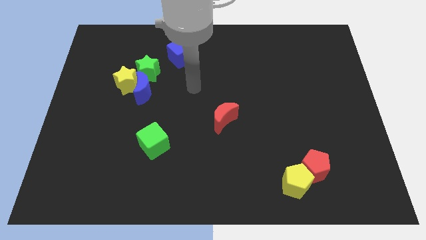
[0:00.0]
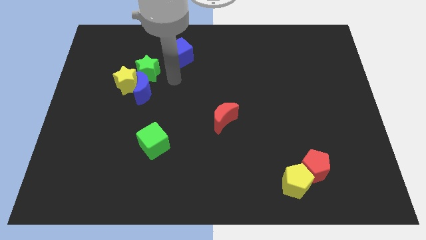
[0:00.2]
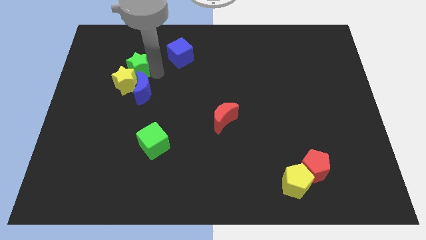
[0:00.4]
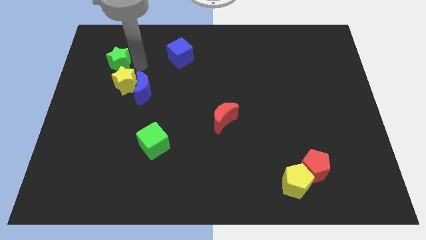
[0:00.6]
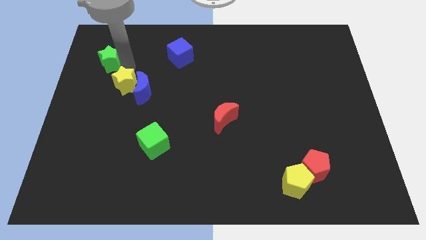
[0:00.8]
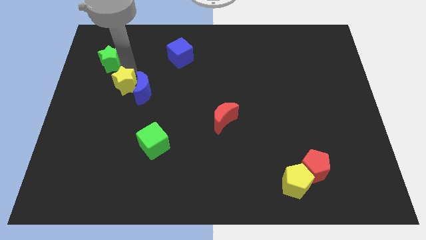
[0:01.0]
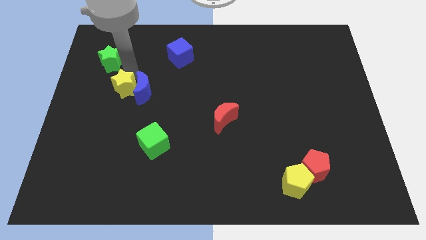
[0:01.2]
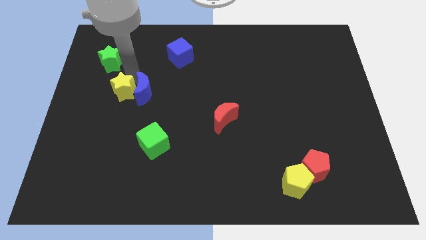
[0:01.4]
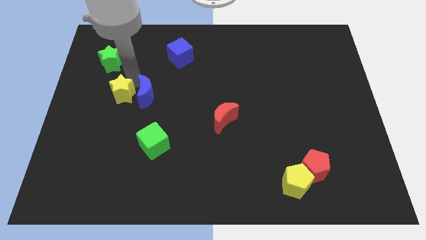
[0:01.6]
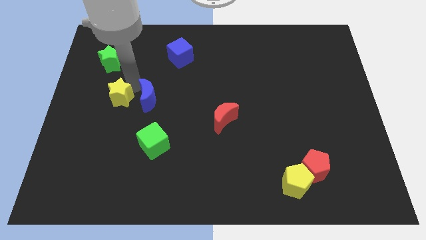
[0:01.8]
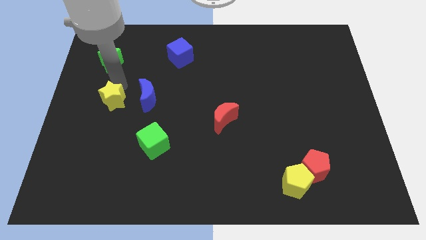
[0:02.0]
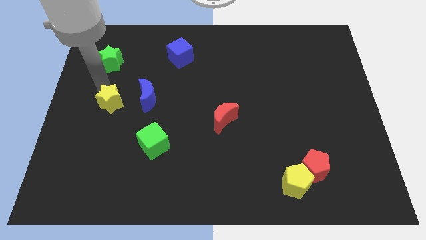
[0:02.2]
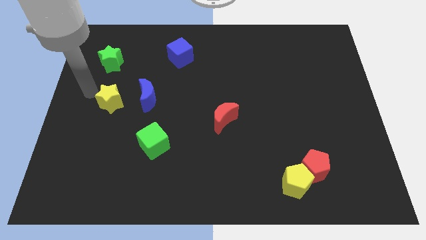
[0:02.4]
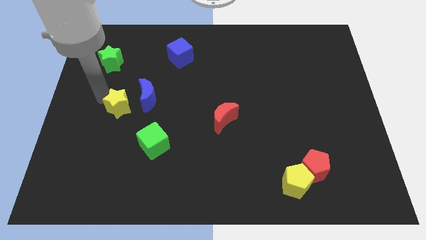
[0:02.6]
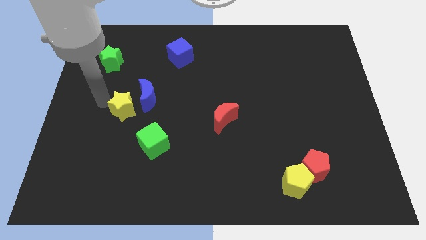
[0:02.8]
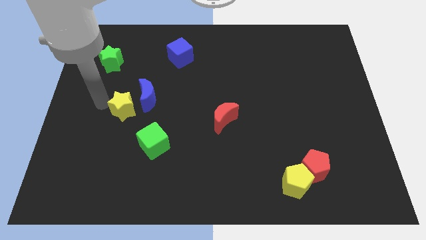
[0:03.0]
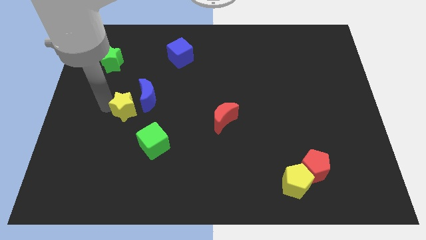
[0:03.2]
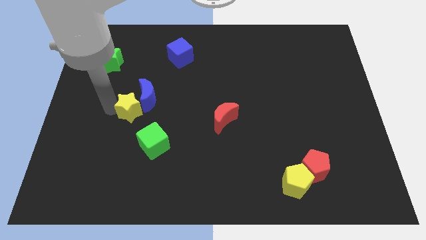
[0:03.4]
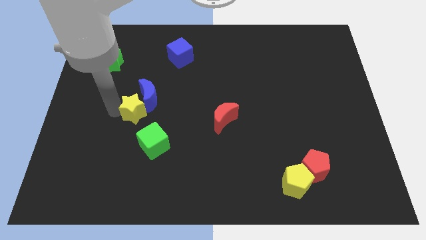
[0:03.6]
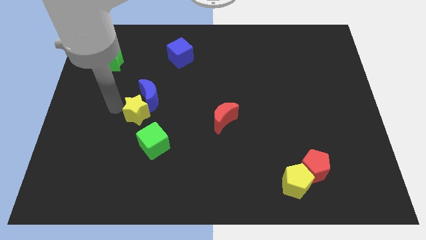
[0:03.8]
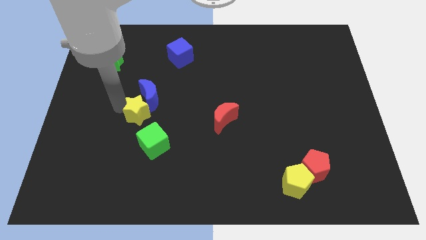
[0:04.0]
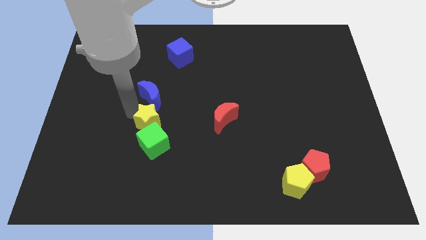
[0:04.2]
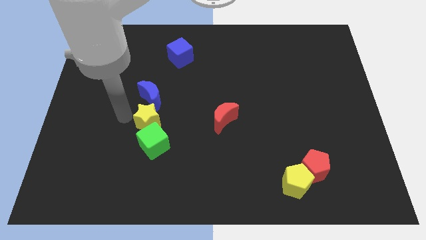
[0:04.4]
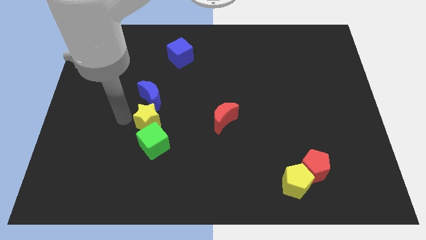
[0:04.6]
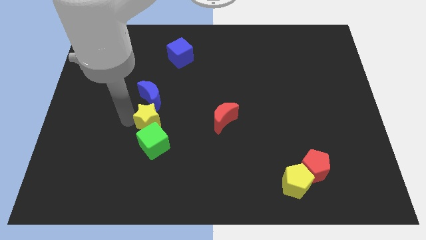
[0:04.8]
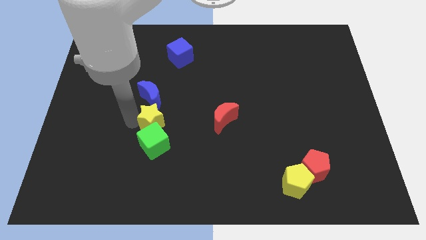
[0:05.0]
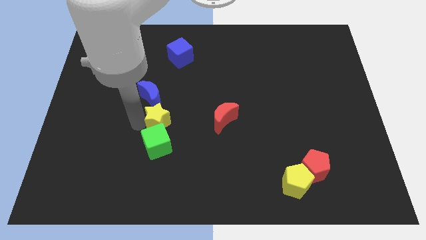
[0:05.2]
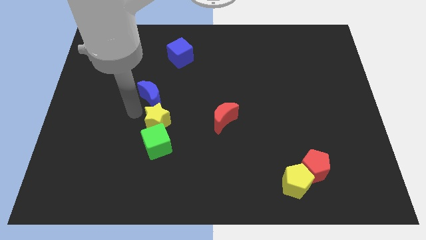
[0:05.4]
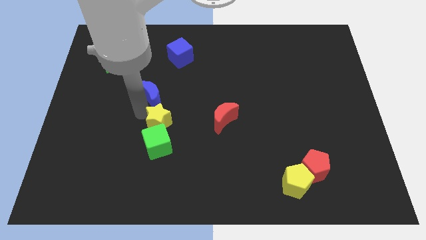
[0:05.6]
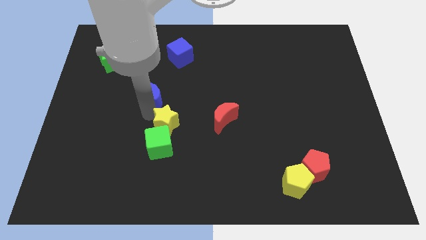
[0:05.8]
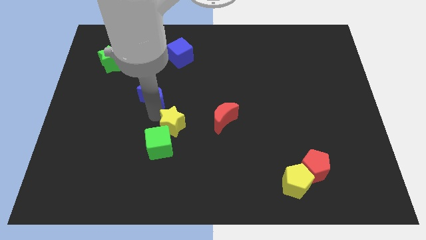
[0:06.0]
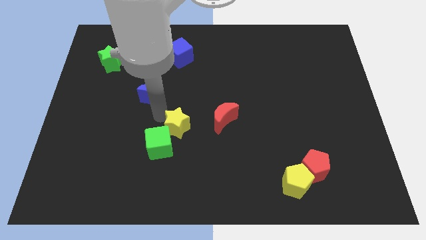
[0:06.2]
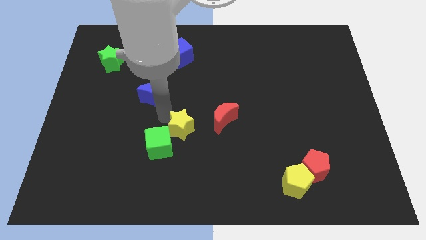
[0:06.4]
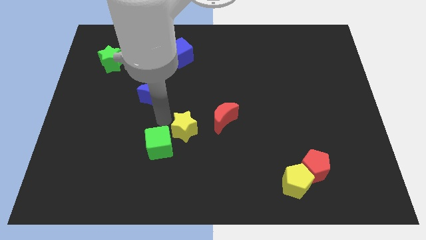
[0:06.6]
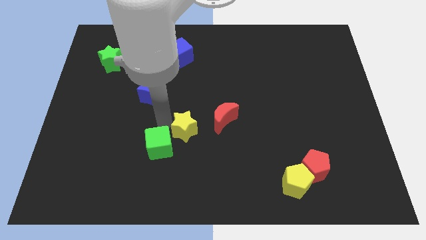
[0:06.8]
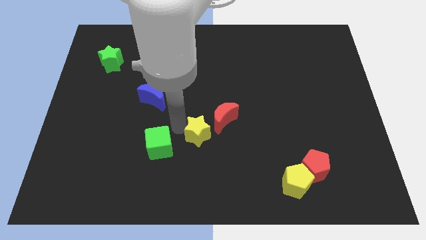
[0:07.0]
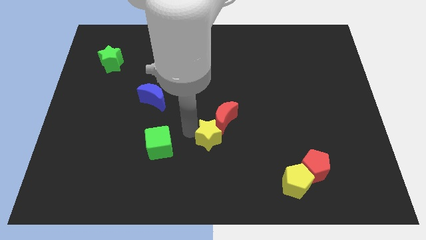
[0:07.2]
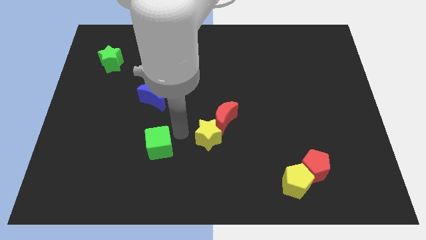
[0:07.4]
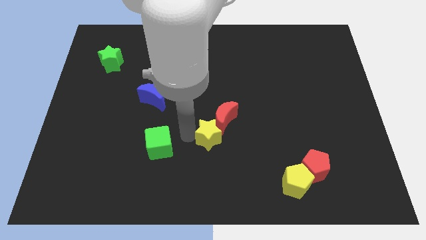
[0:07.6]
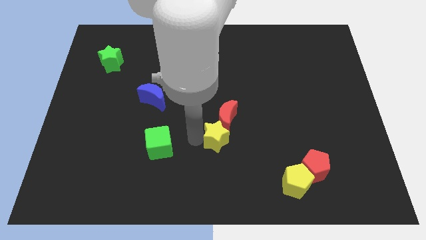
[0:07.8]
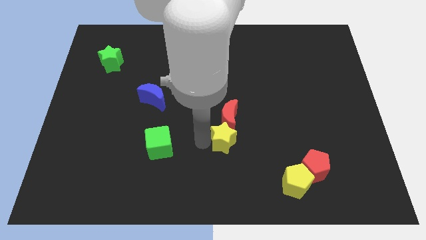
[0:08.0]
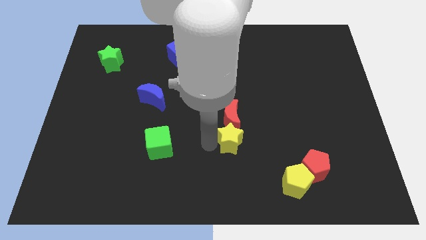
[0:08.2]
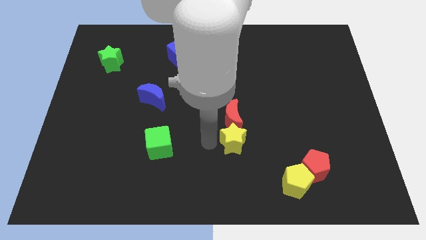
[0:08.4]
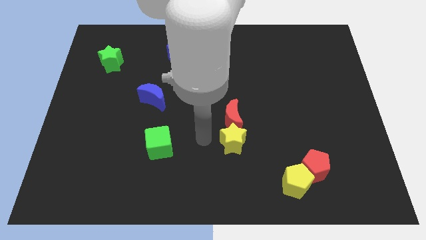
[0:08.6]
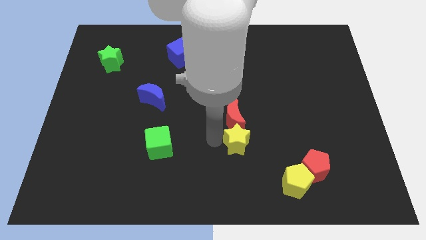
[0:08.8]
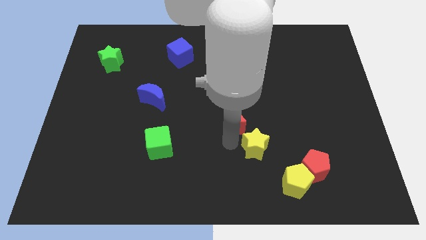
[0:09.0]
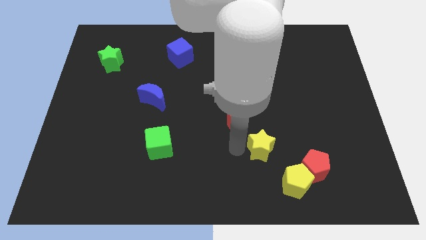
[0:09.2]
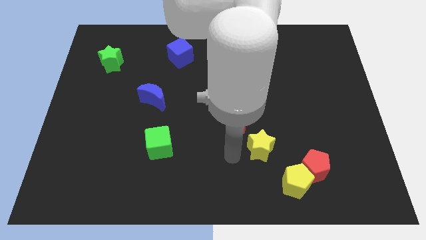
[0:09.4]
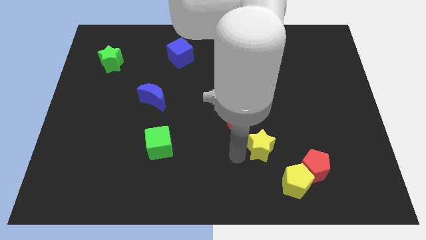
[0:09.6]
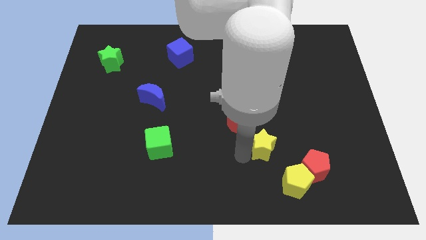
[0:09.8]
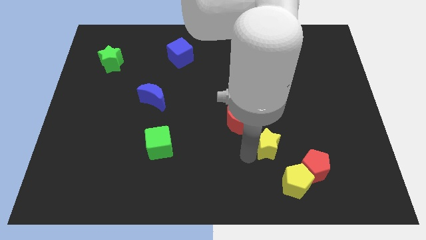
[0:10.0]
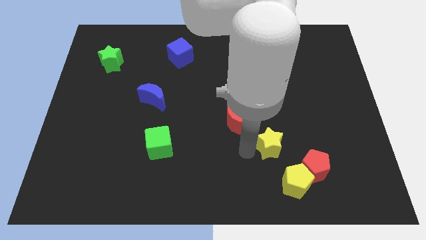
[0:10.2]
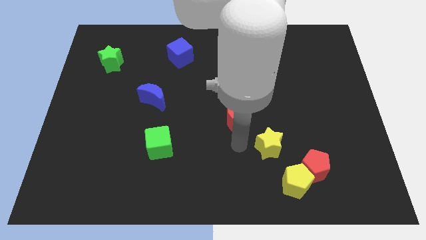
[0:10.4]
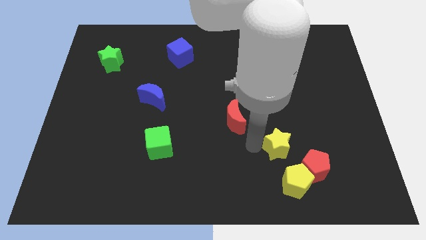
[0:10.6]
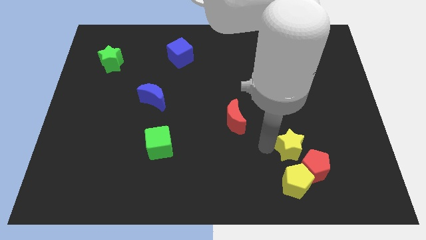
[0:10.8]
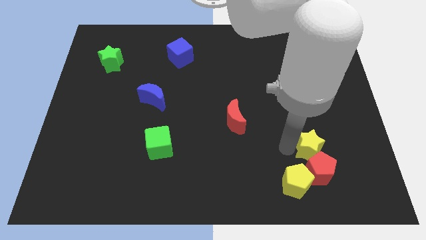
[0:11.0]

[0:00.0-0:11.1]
put the yellow star to the top right side of the red pentagon

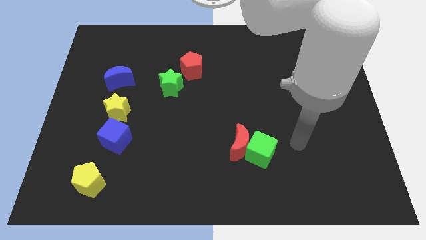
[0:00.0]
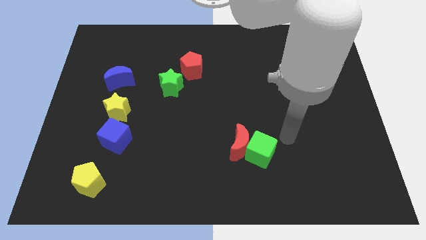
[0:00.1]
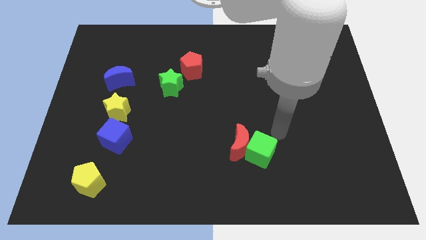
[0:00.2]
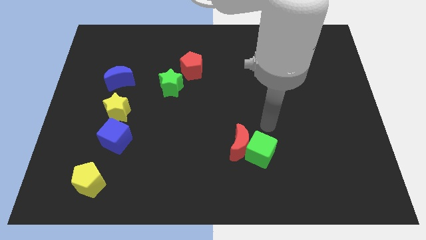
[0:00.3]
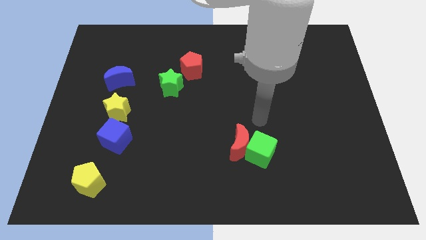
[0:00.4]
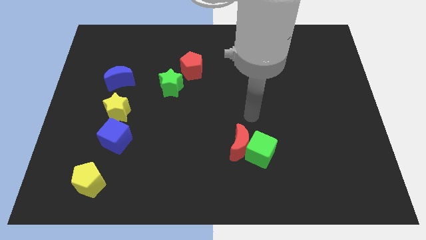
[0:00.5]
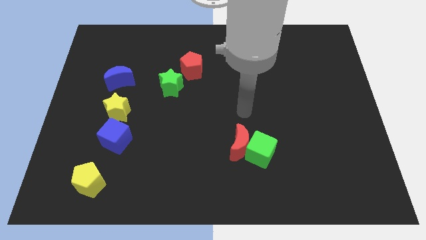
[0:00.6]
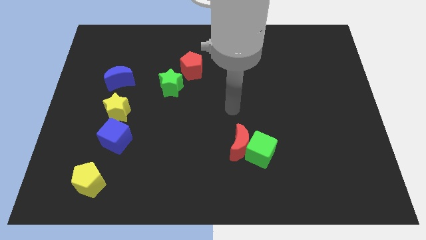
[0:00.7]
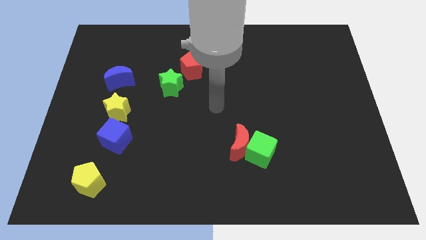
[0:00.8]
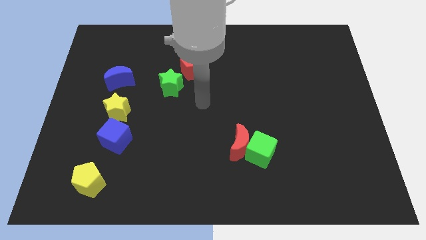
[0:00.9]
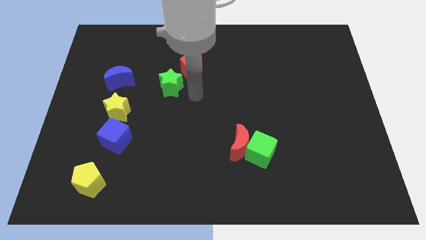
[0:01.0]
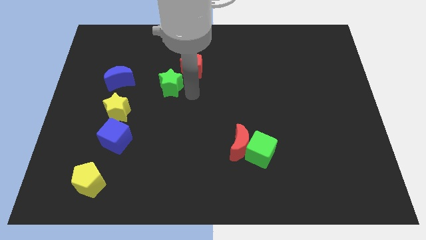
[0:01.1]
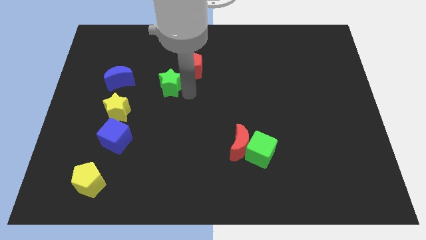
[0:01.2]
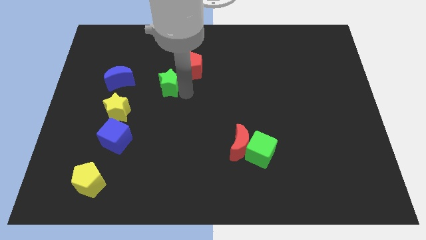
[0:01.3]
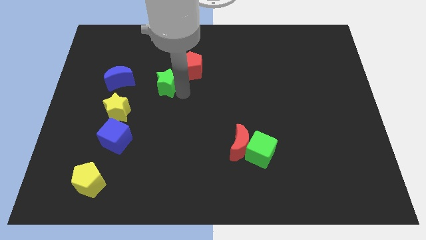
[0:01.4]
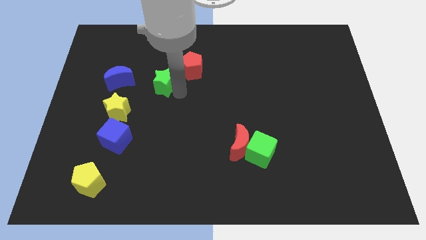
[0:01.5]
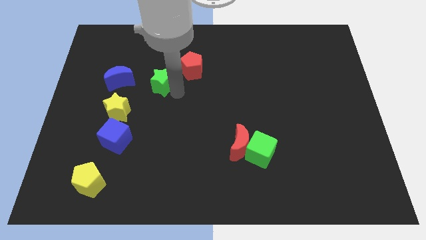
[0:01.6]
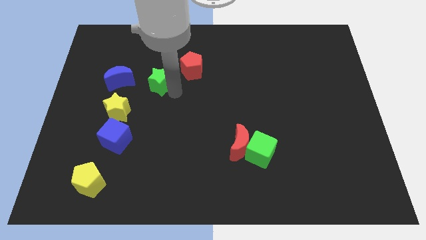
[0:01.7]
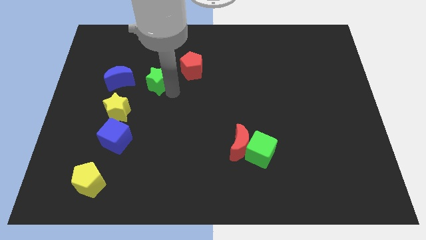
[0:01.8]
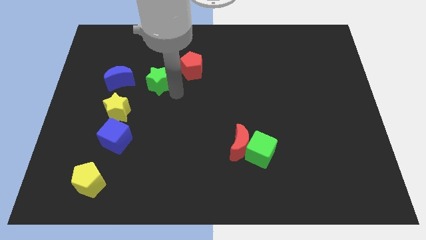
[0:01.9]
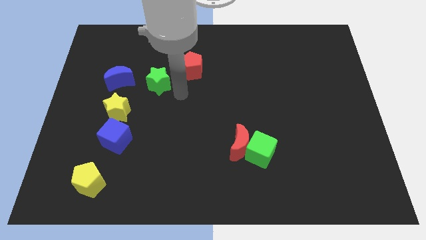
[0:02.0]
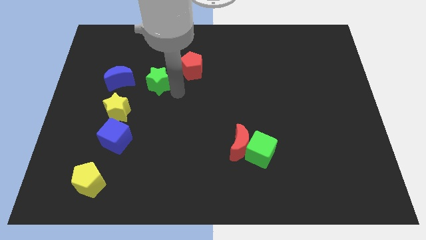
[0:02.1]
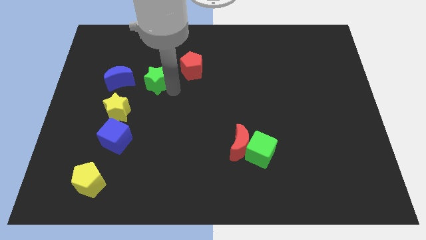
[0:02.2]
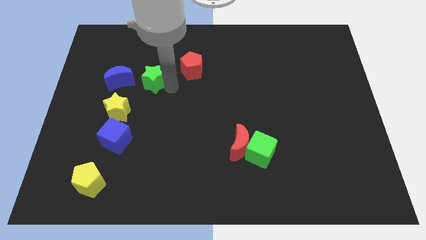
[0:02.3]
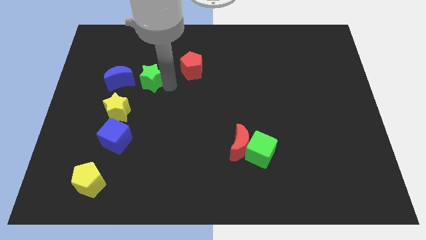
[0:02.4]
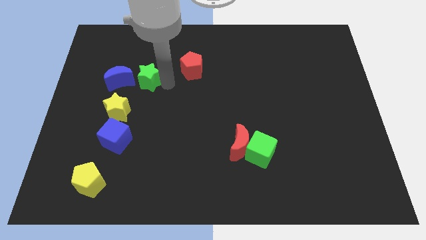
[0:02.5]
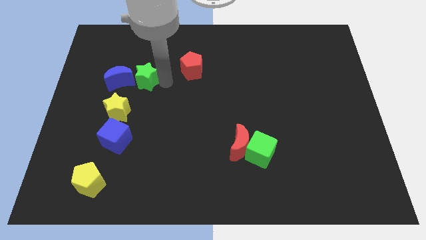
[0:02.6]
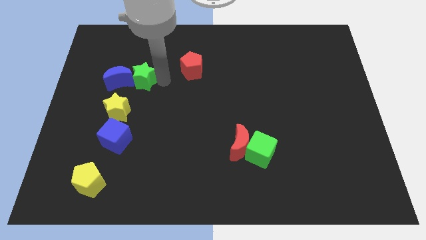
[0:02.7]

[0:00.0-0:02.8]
push the green star to the top of the yellow star
